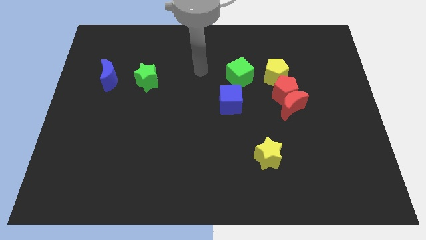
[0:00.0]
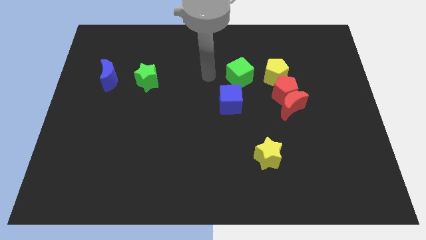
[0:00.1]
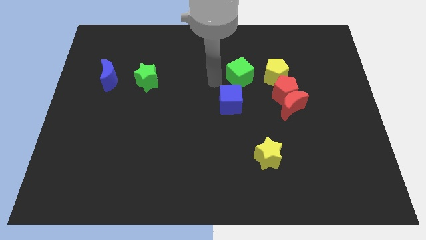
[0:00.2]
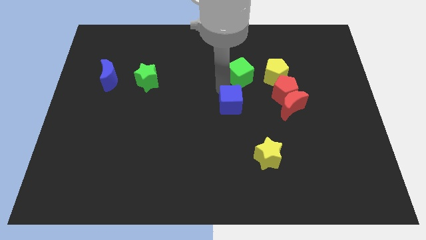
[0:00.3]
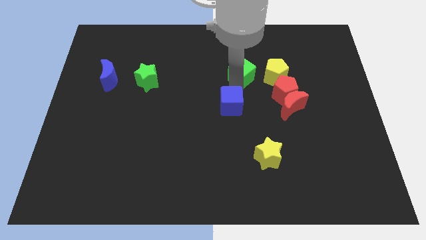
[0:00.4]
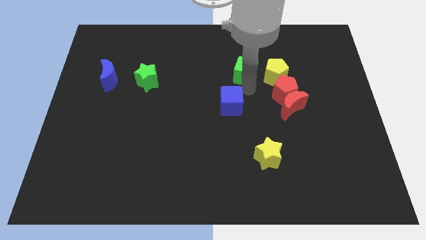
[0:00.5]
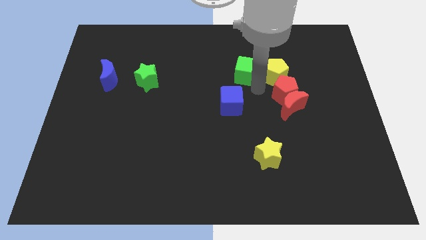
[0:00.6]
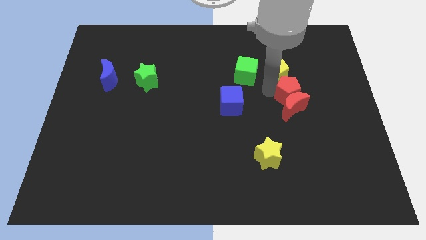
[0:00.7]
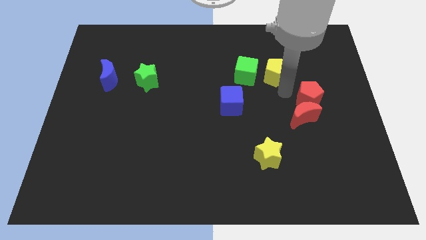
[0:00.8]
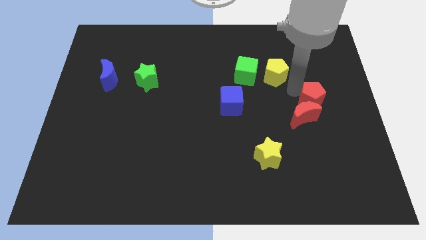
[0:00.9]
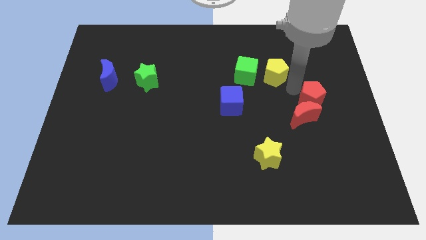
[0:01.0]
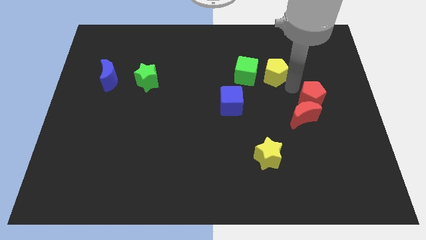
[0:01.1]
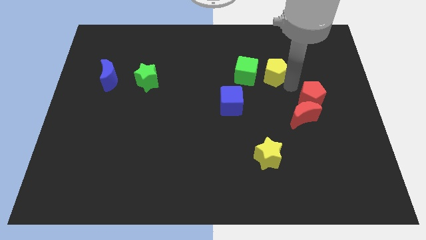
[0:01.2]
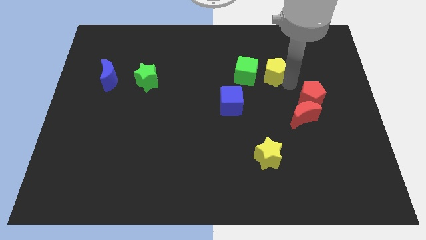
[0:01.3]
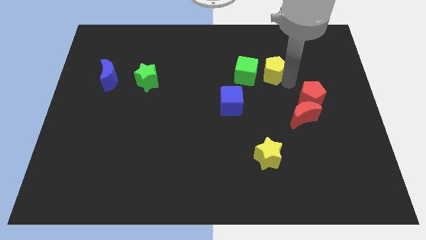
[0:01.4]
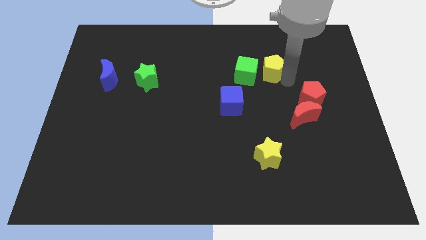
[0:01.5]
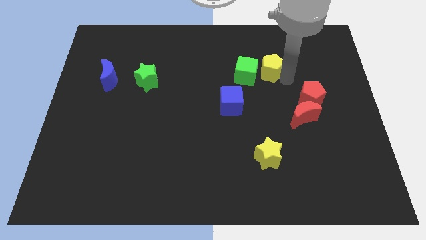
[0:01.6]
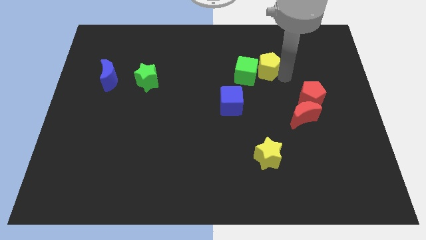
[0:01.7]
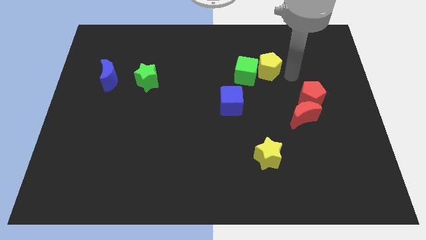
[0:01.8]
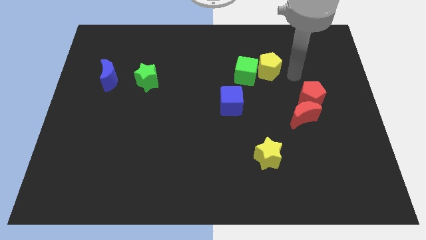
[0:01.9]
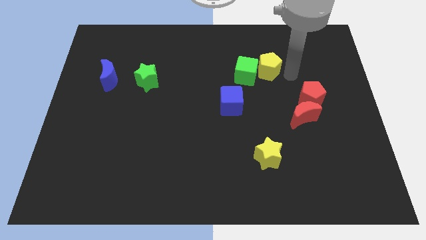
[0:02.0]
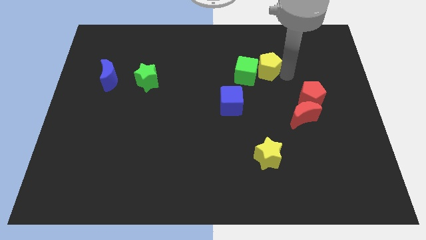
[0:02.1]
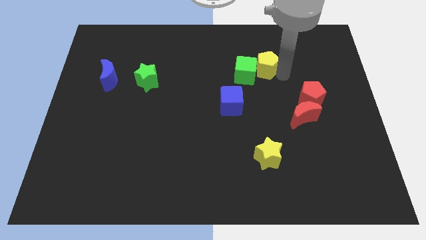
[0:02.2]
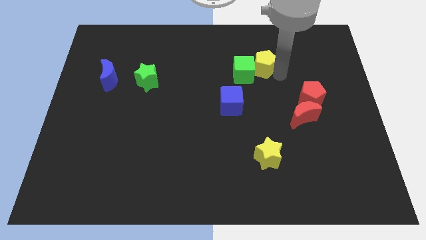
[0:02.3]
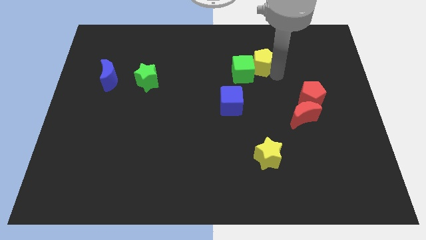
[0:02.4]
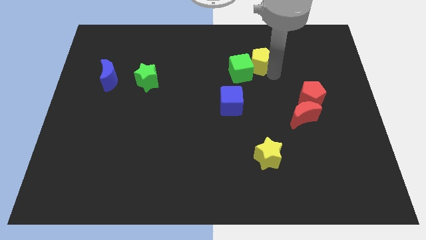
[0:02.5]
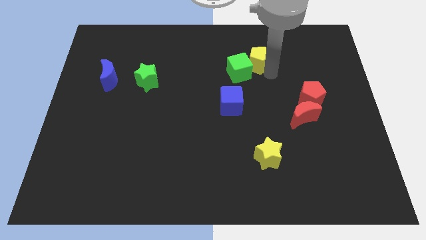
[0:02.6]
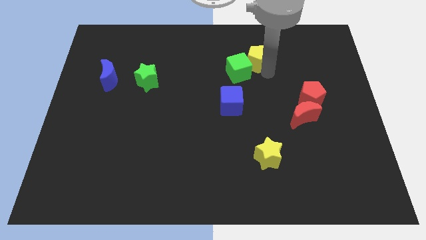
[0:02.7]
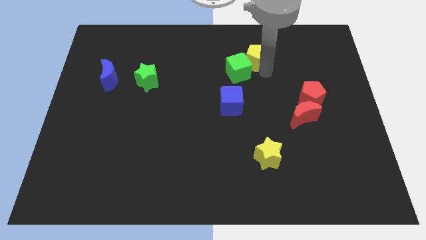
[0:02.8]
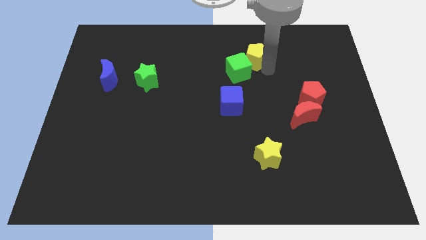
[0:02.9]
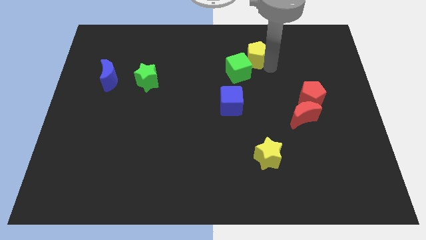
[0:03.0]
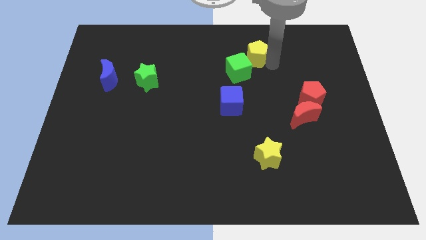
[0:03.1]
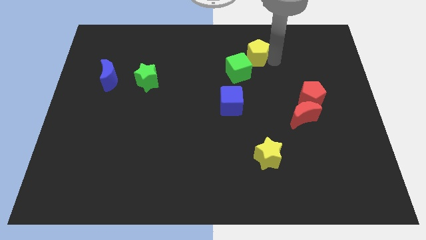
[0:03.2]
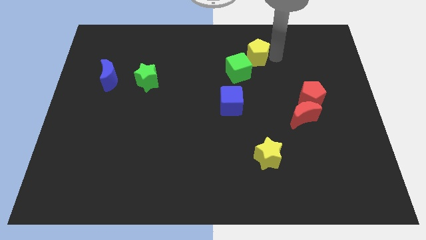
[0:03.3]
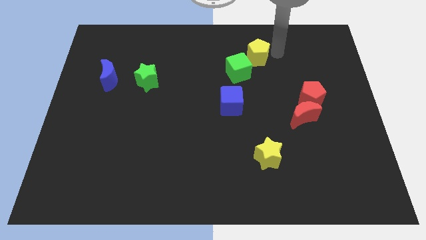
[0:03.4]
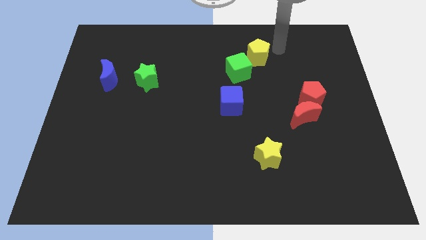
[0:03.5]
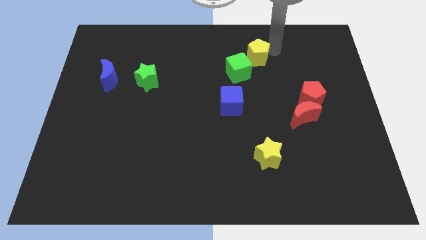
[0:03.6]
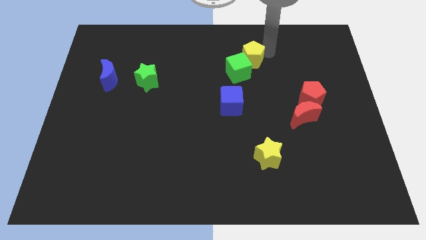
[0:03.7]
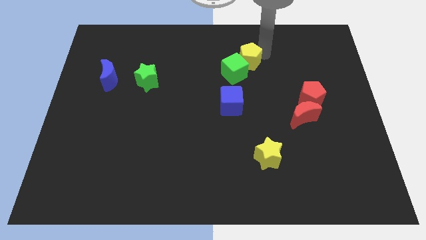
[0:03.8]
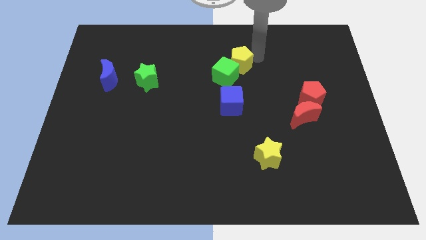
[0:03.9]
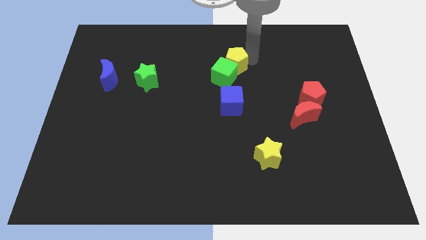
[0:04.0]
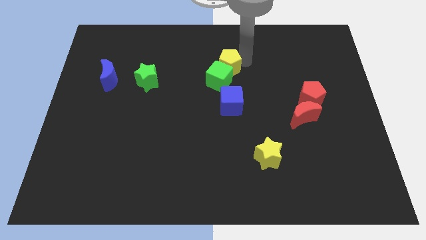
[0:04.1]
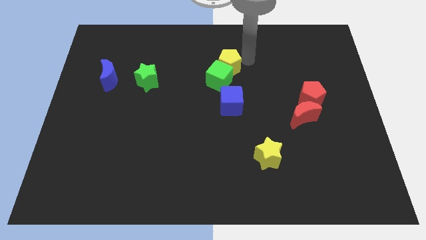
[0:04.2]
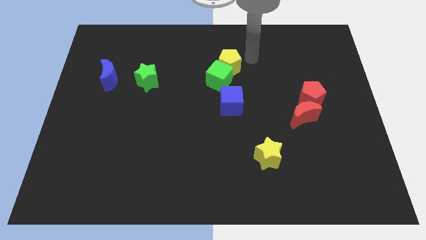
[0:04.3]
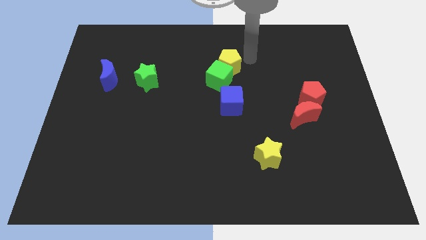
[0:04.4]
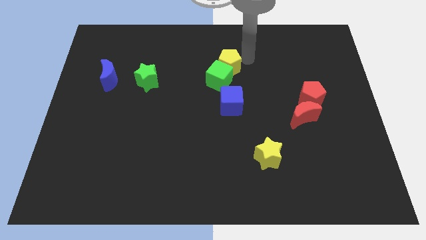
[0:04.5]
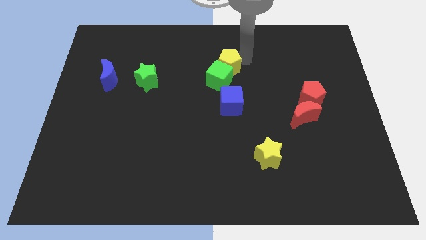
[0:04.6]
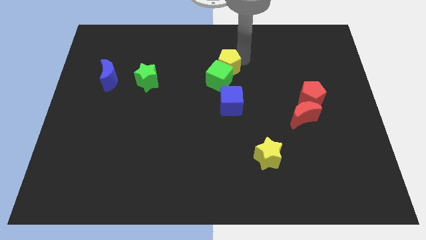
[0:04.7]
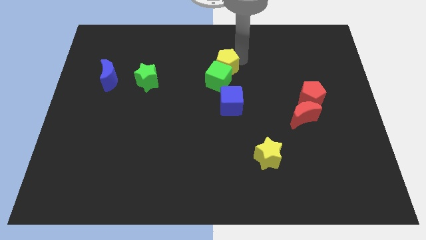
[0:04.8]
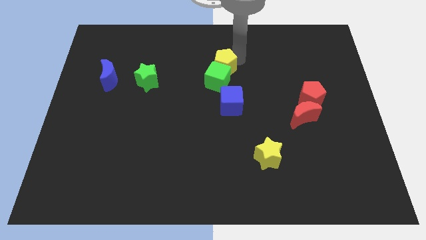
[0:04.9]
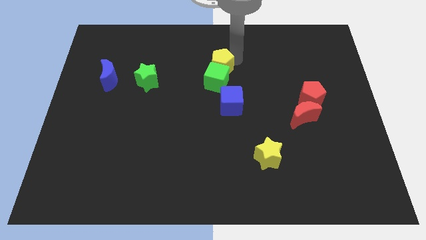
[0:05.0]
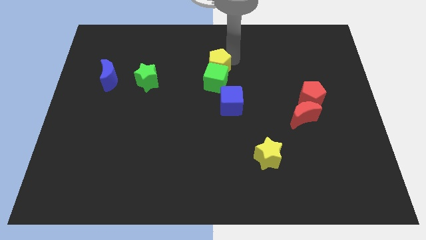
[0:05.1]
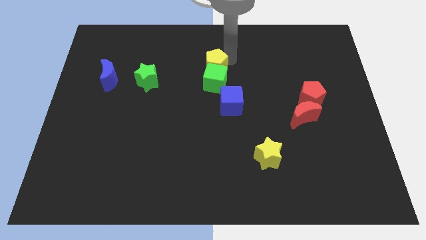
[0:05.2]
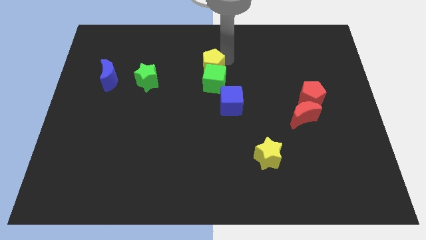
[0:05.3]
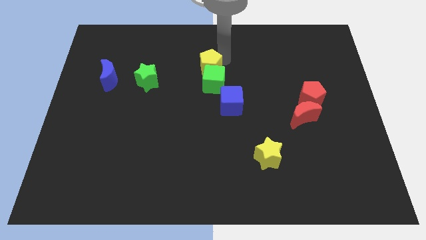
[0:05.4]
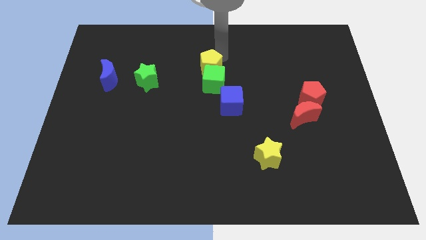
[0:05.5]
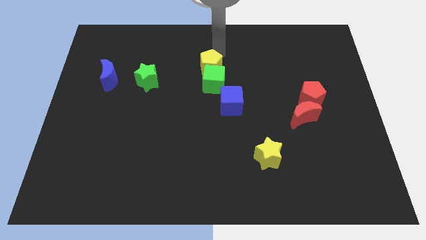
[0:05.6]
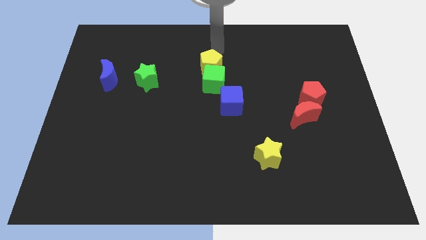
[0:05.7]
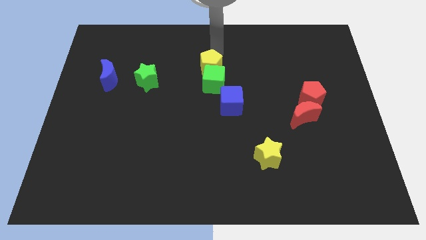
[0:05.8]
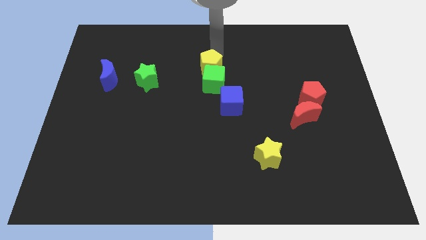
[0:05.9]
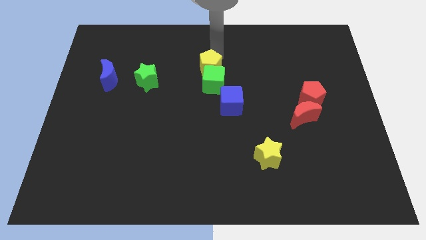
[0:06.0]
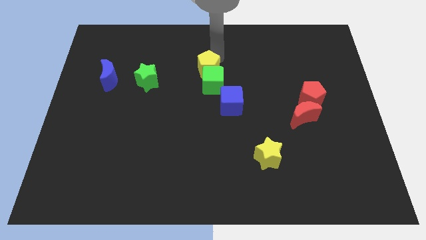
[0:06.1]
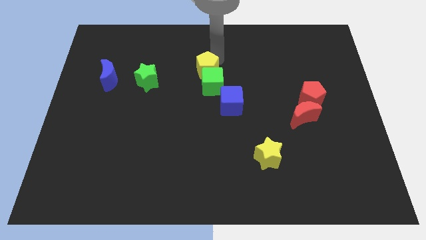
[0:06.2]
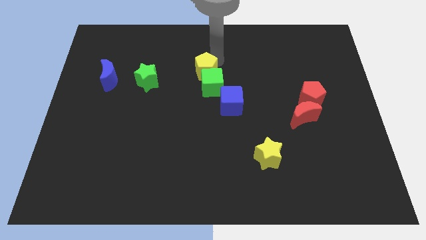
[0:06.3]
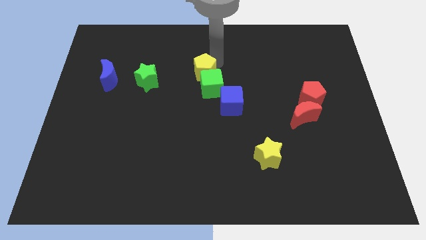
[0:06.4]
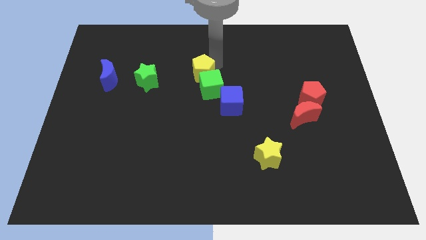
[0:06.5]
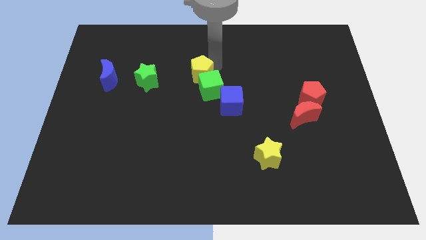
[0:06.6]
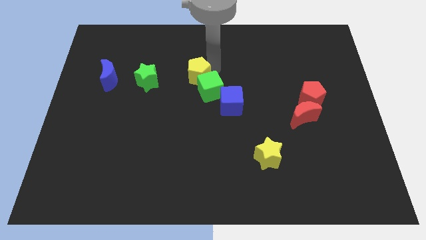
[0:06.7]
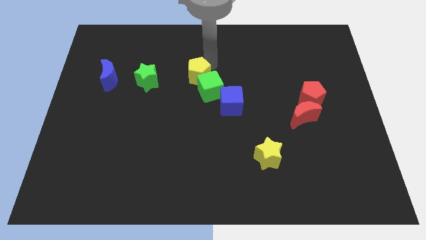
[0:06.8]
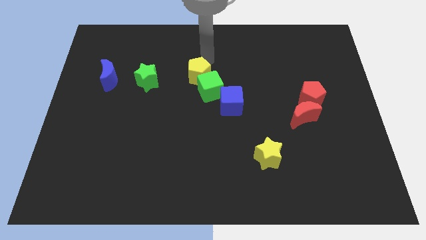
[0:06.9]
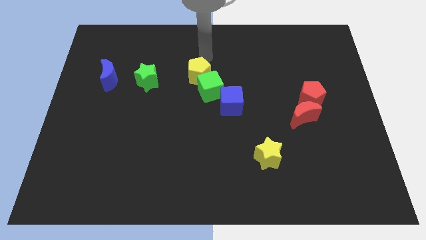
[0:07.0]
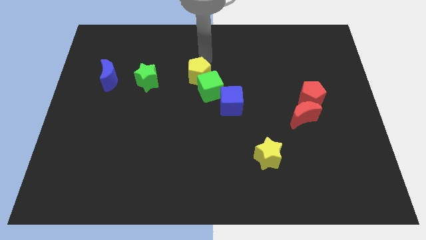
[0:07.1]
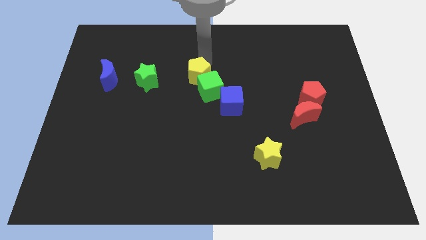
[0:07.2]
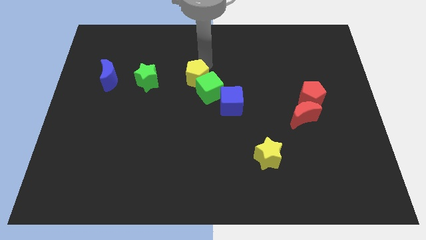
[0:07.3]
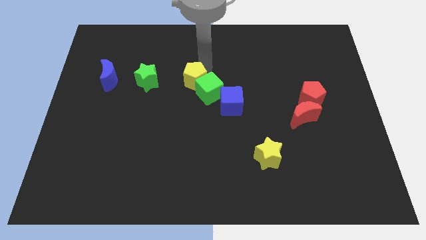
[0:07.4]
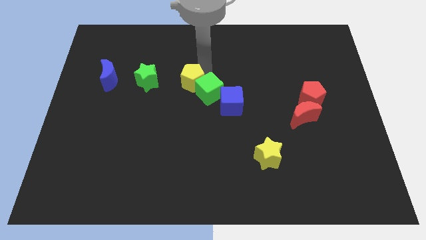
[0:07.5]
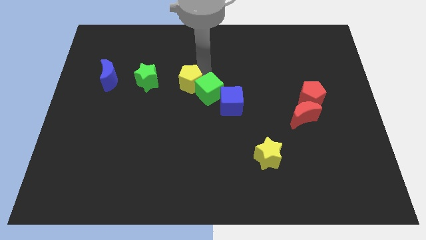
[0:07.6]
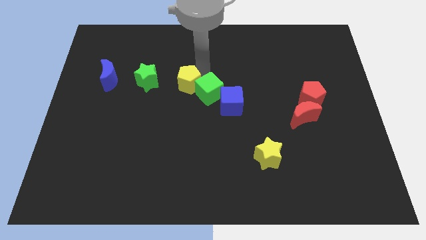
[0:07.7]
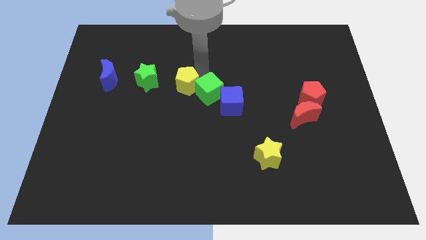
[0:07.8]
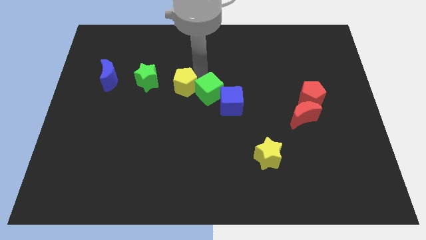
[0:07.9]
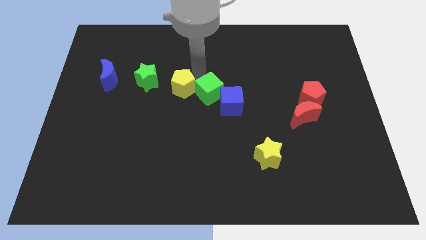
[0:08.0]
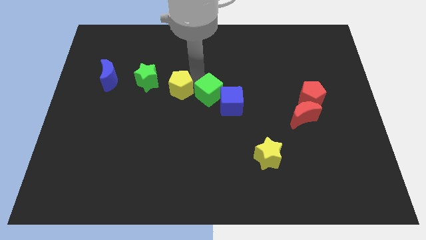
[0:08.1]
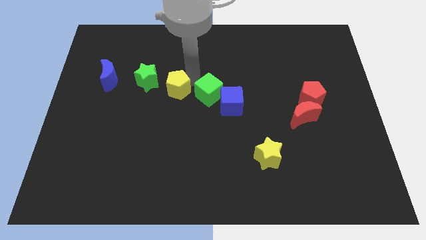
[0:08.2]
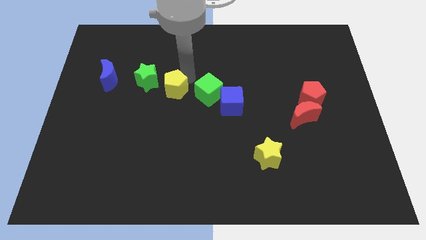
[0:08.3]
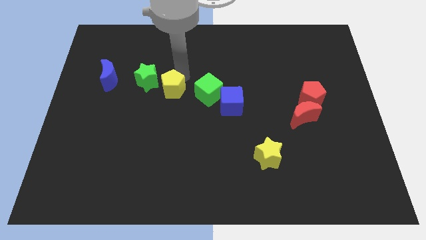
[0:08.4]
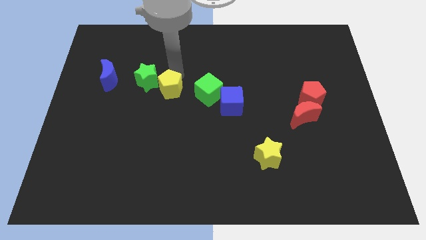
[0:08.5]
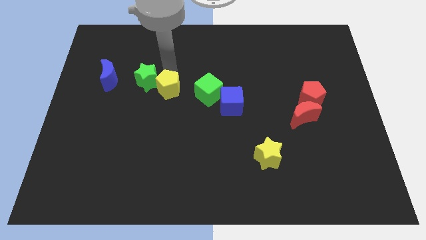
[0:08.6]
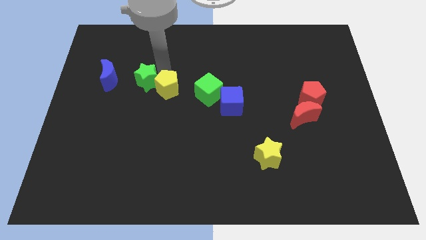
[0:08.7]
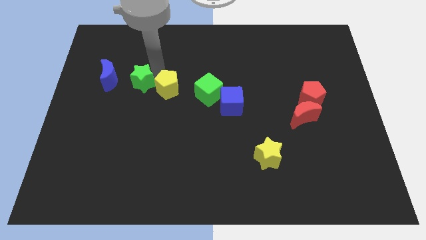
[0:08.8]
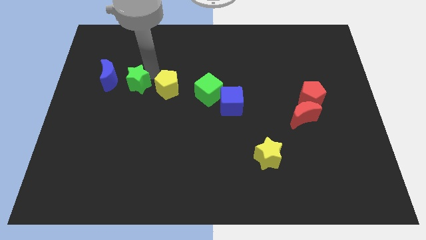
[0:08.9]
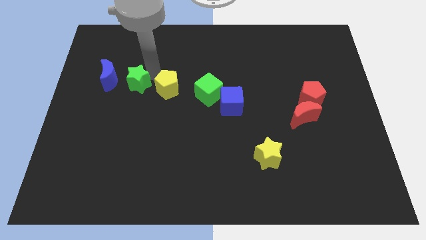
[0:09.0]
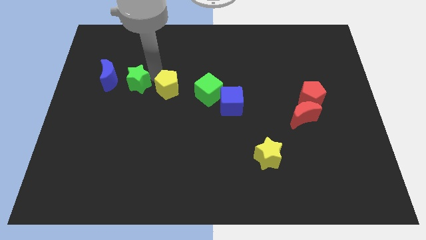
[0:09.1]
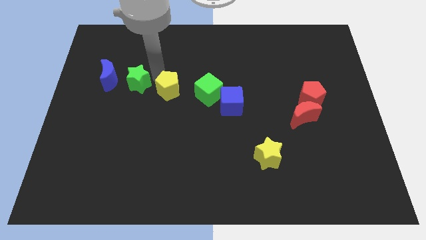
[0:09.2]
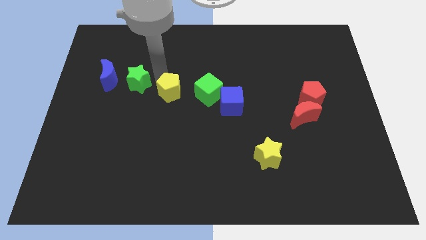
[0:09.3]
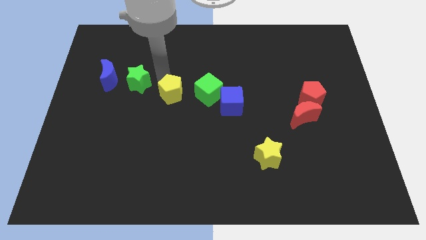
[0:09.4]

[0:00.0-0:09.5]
push the yellow pentagon left of the blue cube
